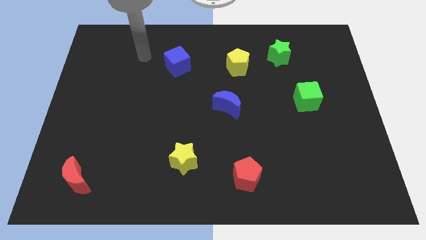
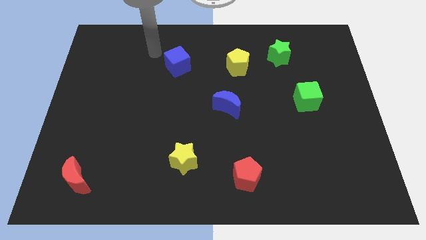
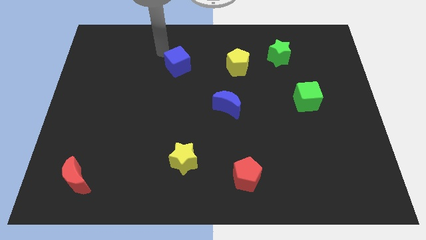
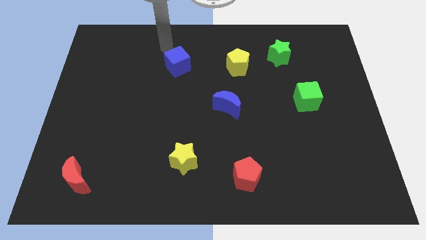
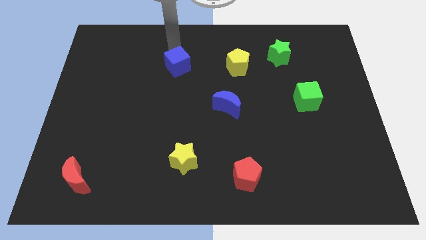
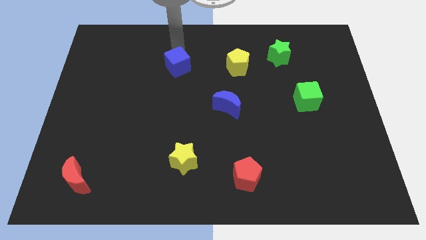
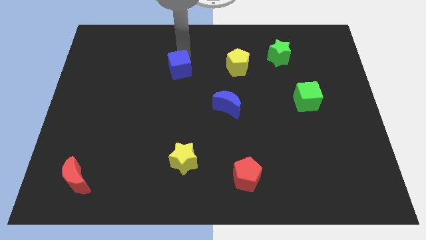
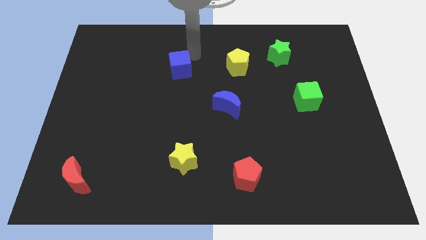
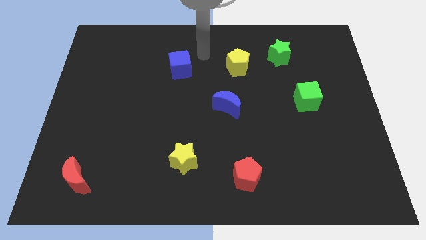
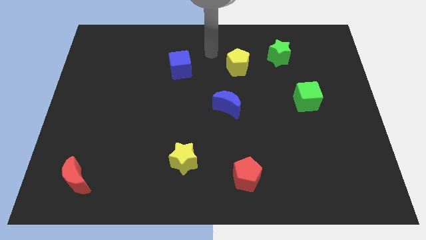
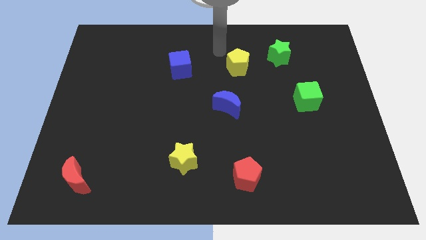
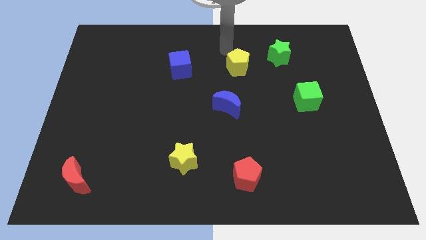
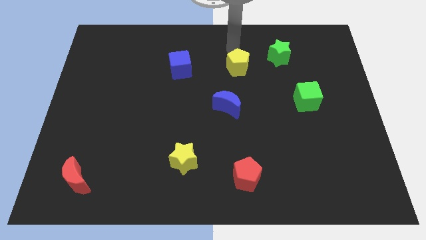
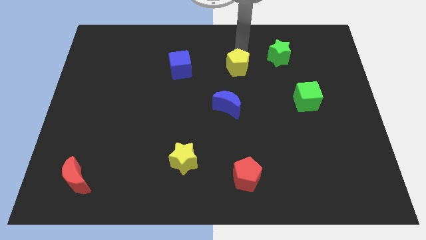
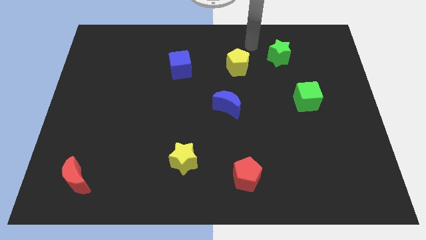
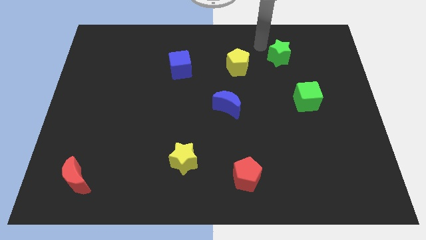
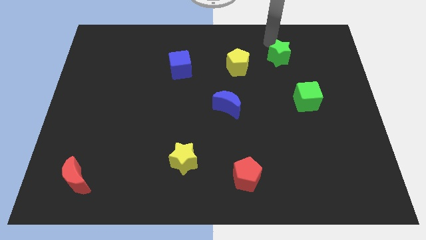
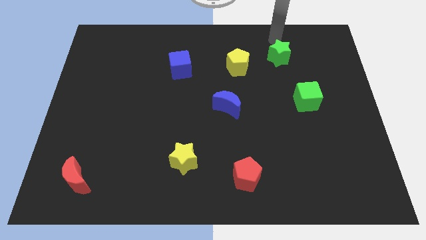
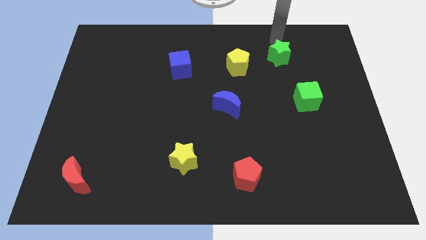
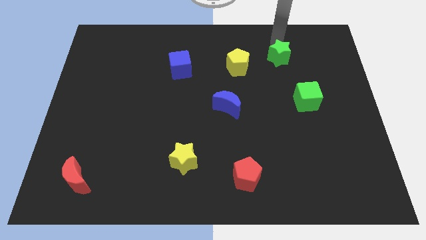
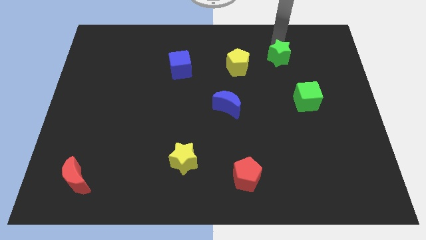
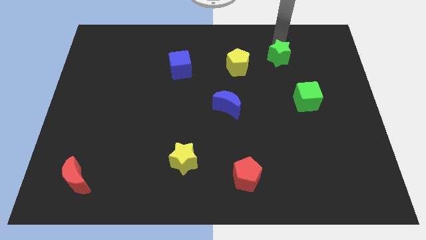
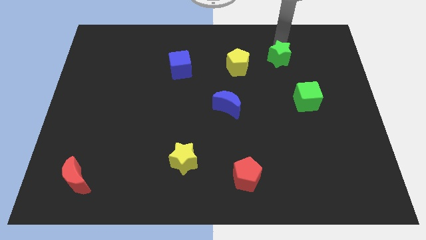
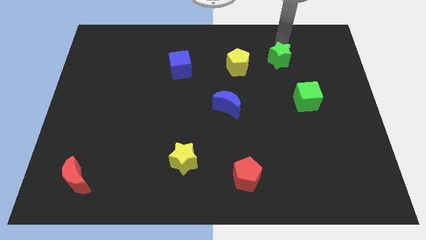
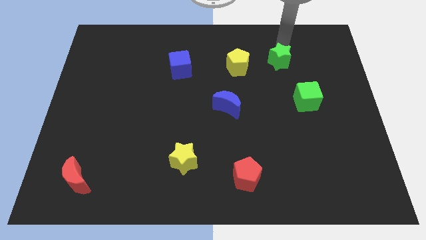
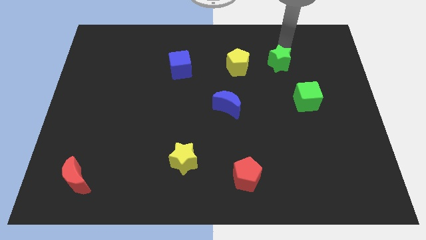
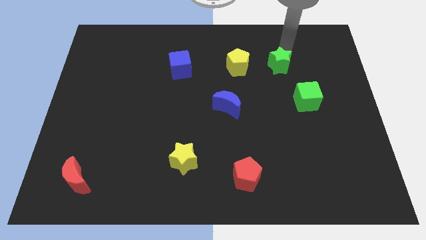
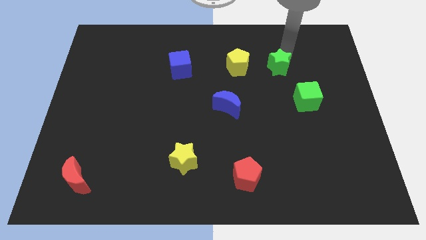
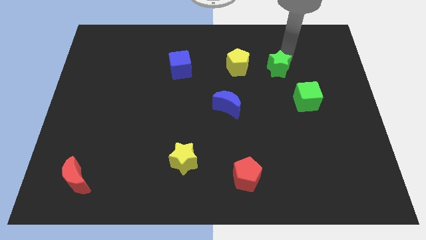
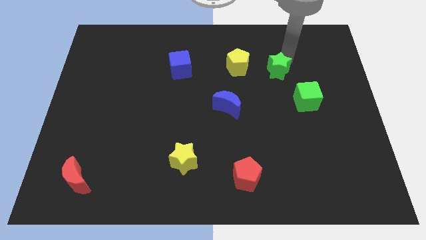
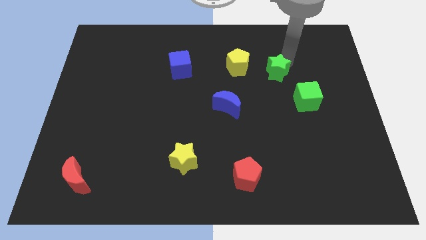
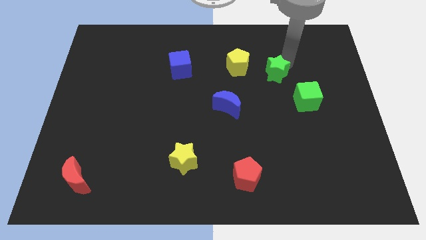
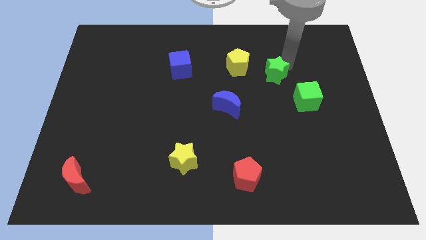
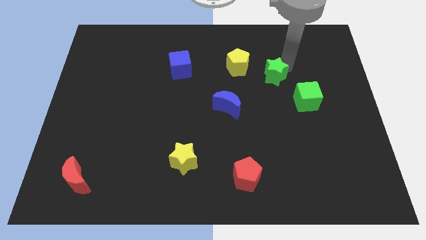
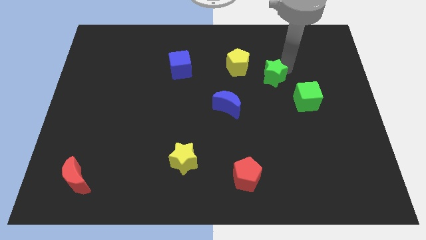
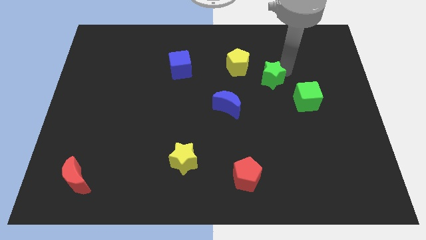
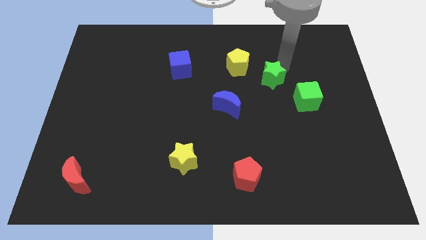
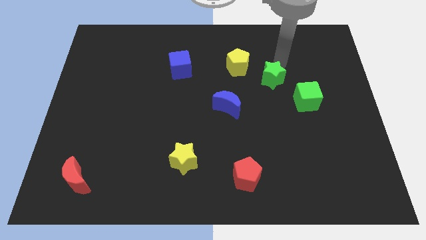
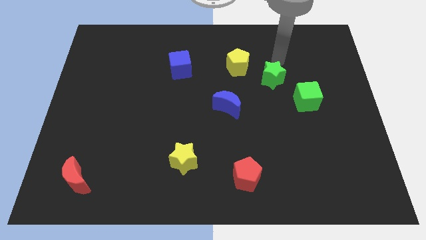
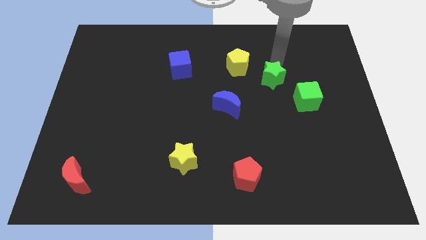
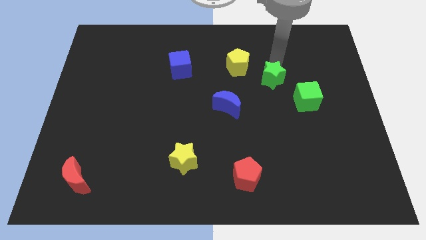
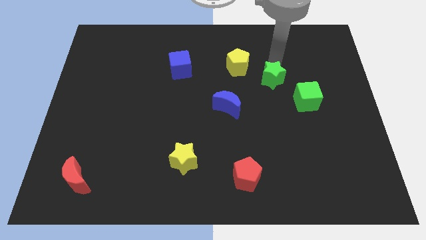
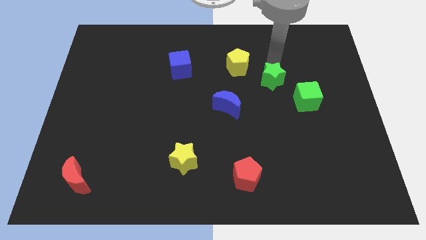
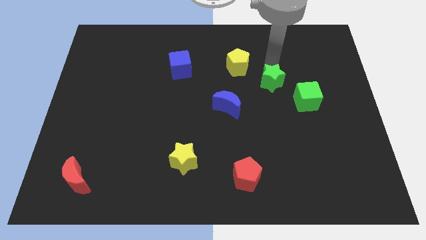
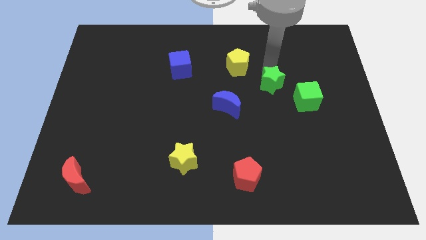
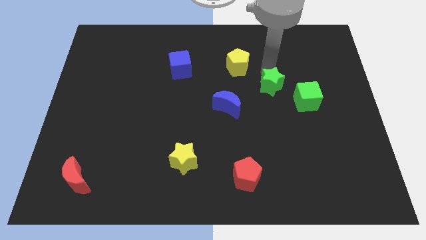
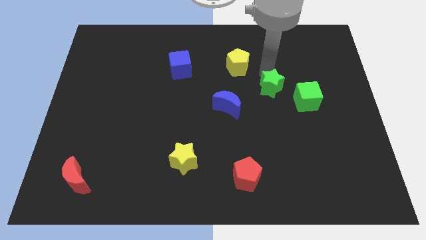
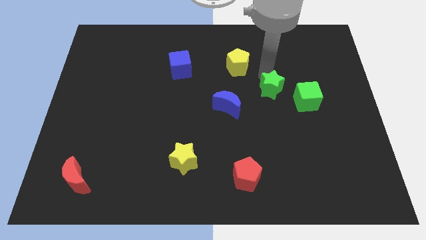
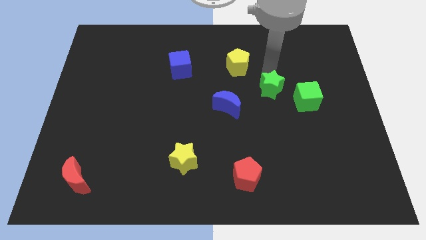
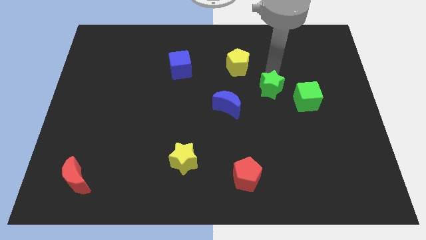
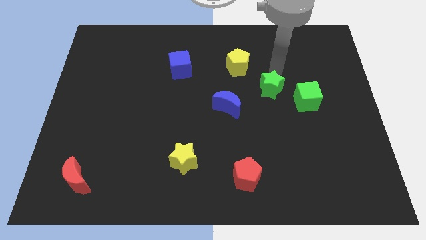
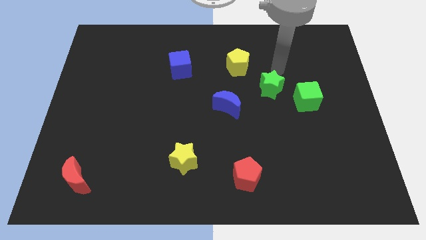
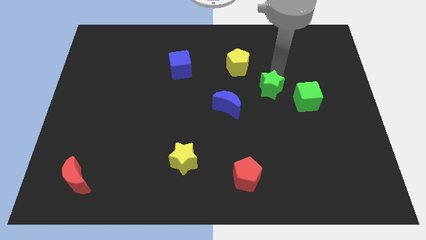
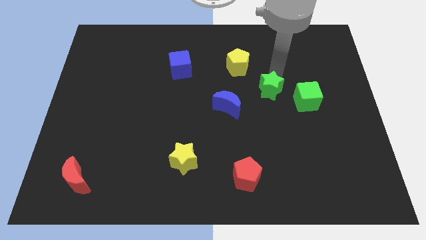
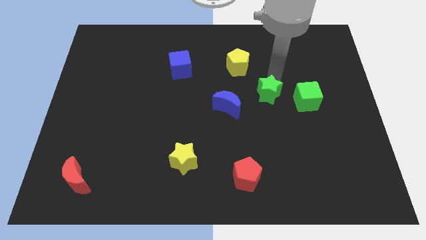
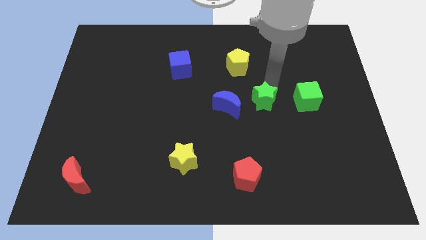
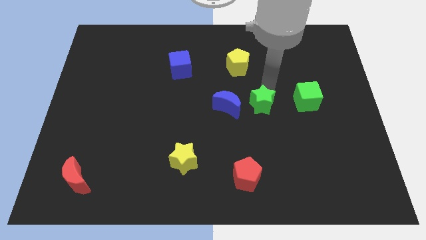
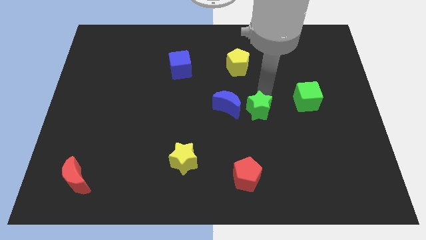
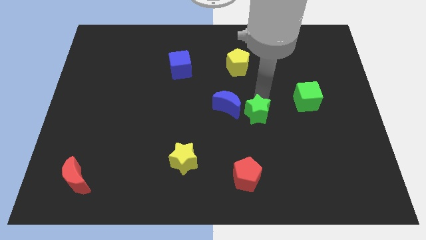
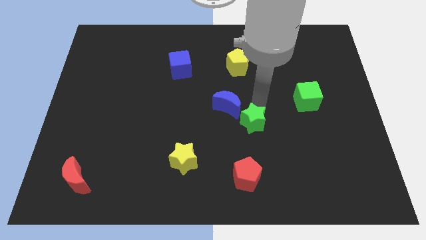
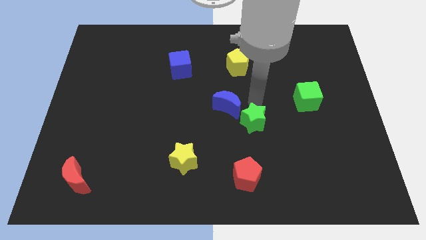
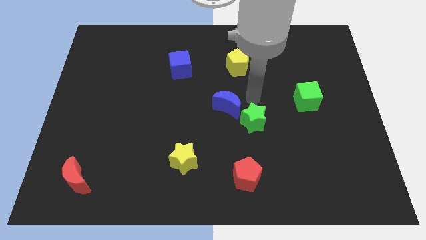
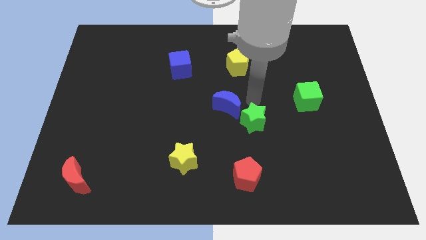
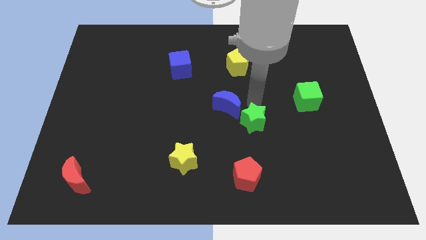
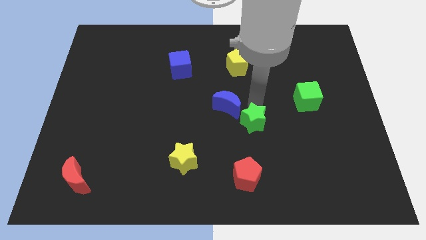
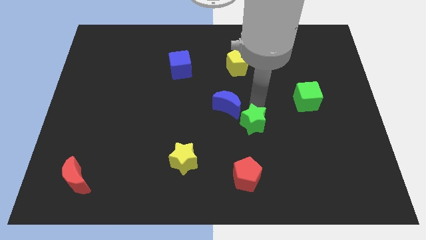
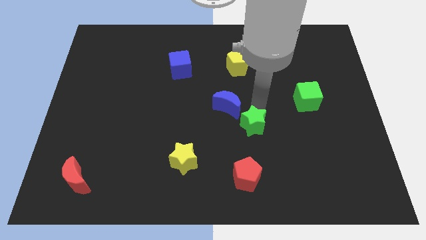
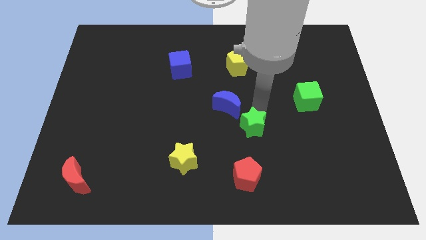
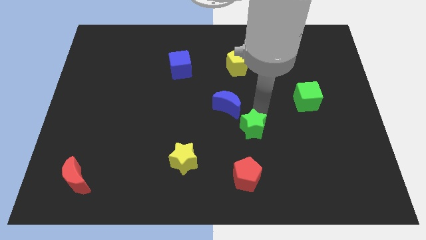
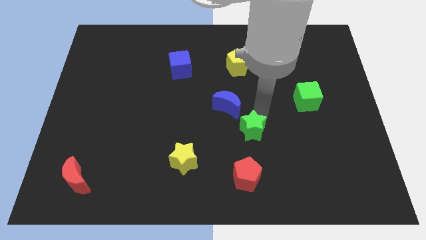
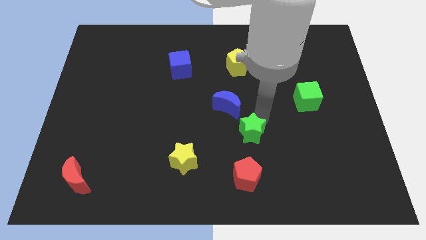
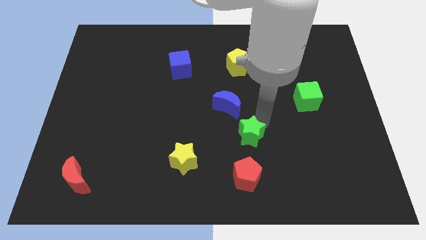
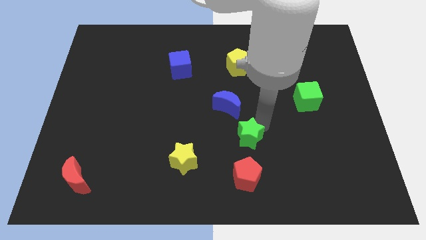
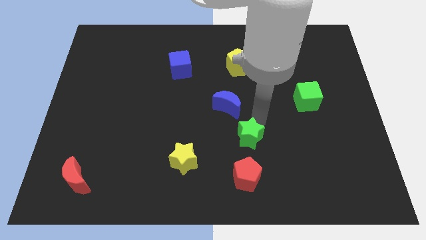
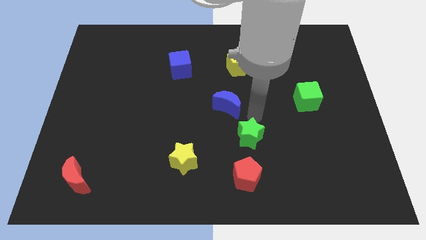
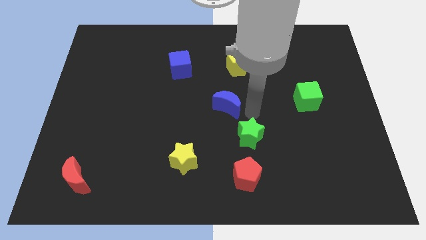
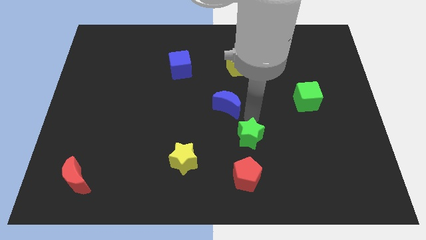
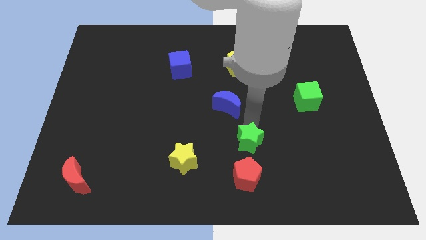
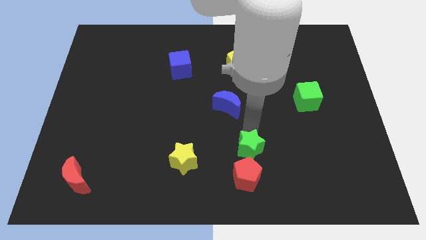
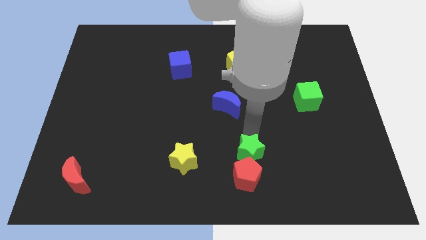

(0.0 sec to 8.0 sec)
move the green star to the red pentagon
